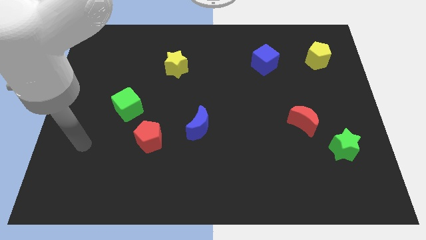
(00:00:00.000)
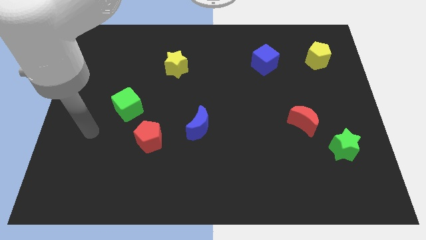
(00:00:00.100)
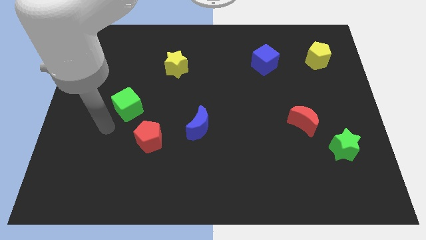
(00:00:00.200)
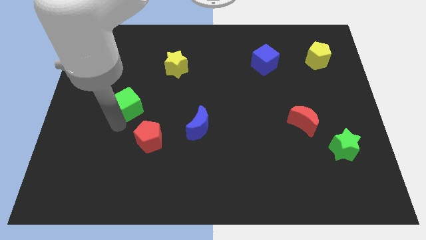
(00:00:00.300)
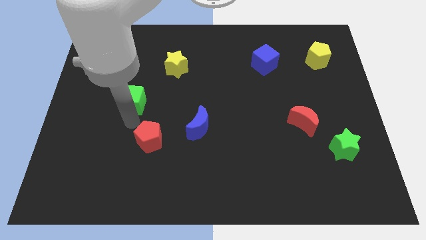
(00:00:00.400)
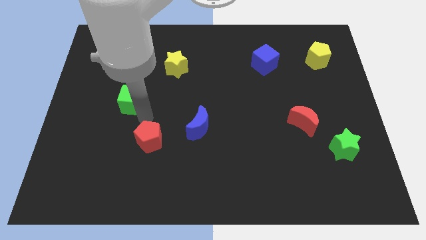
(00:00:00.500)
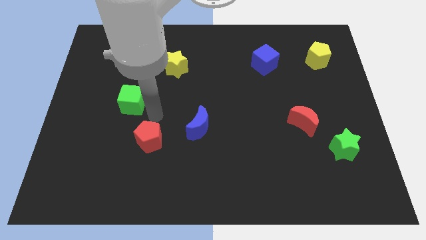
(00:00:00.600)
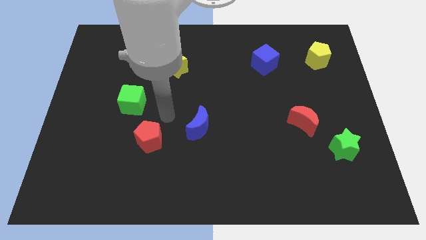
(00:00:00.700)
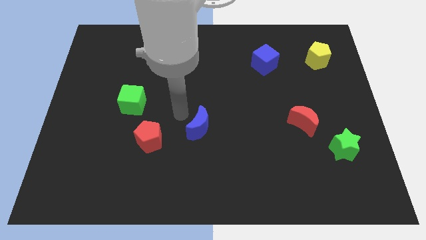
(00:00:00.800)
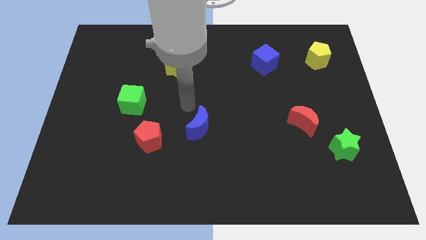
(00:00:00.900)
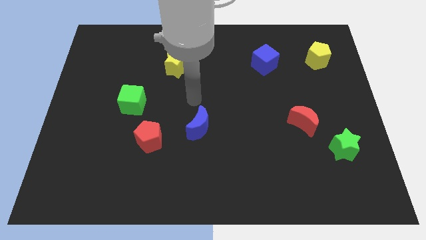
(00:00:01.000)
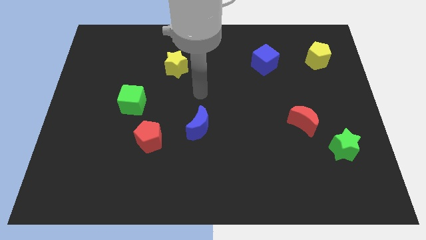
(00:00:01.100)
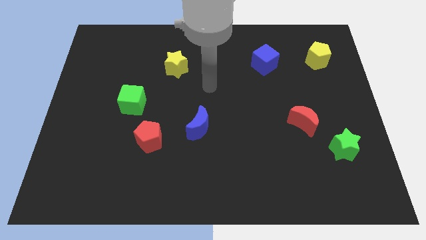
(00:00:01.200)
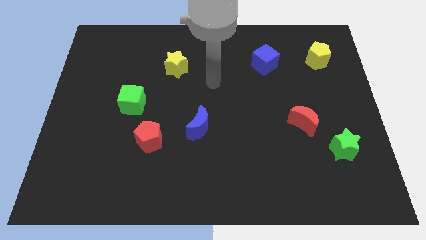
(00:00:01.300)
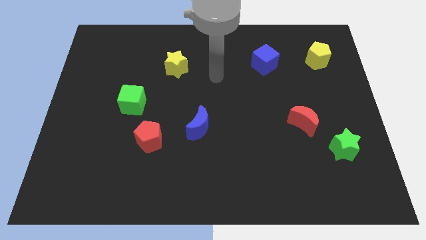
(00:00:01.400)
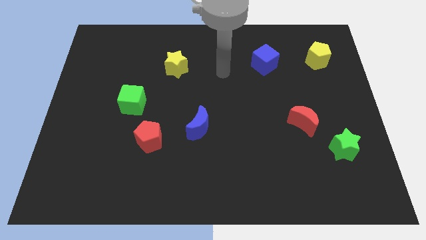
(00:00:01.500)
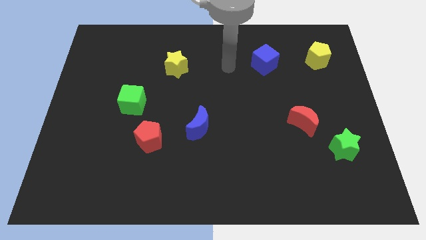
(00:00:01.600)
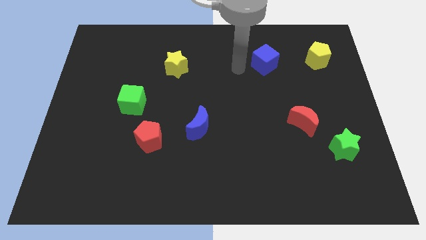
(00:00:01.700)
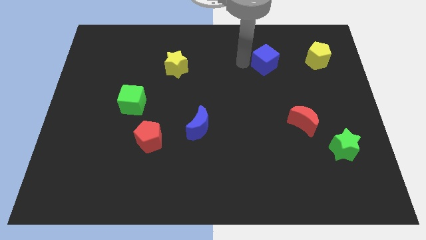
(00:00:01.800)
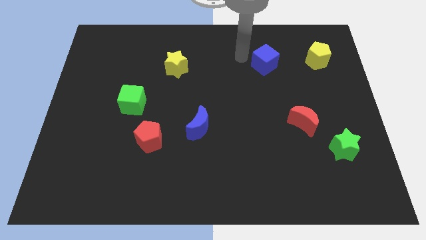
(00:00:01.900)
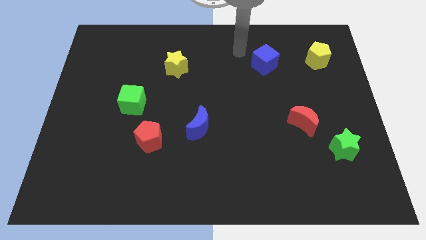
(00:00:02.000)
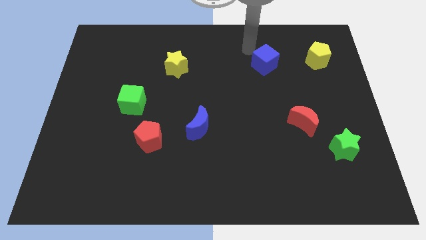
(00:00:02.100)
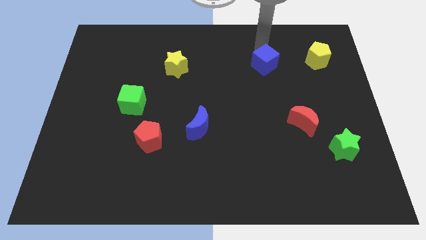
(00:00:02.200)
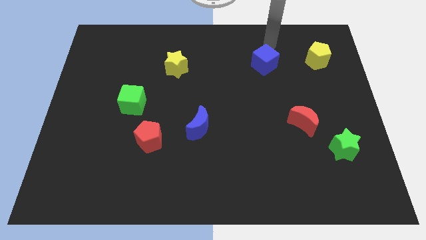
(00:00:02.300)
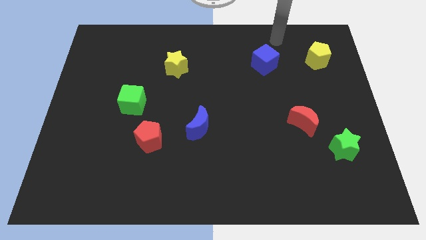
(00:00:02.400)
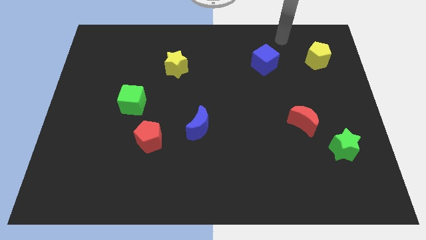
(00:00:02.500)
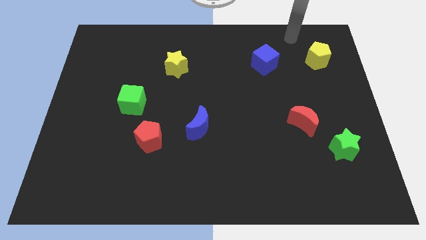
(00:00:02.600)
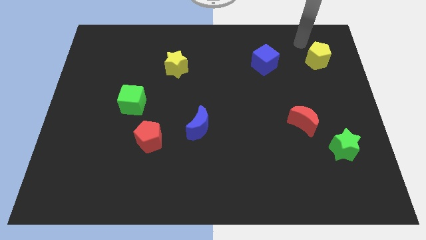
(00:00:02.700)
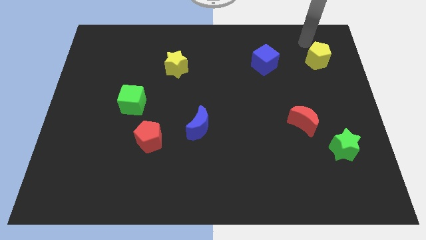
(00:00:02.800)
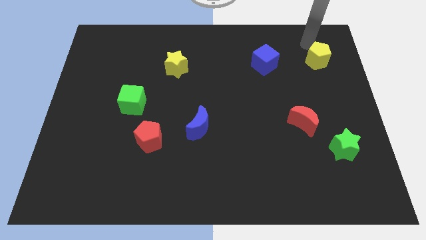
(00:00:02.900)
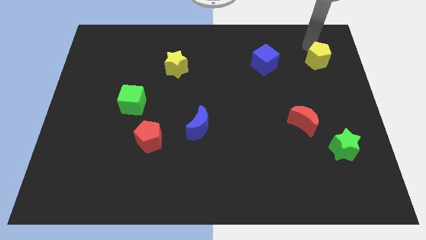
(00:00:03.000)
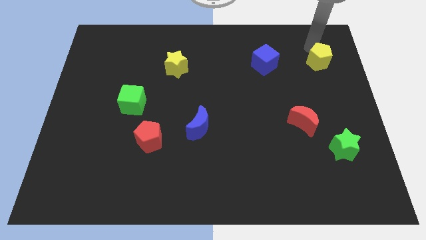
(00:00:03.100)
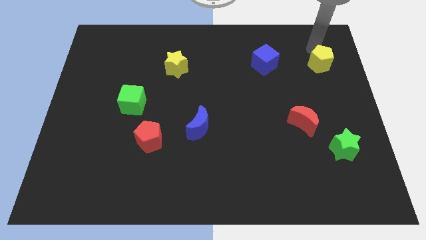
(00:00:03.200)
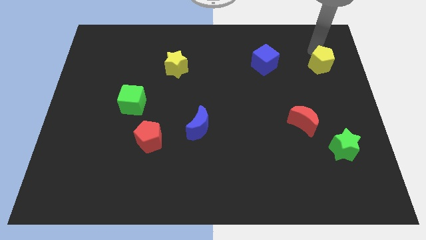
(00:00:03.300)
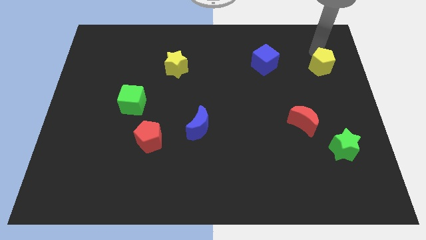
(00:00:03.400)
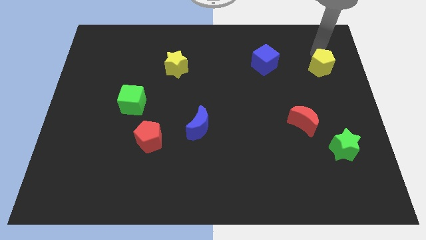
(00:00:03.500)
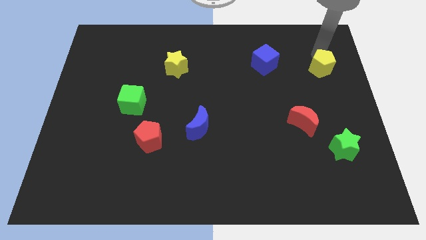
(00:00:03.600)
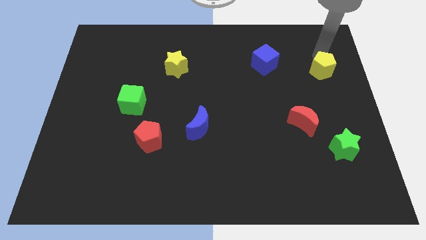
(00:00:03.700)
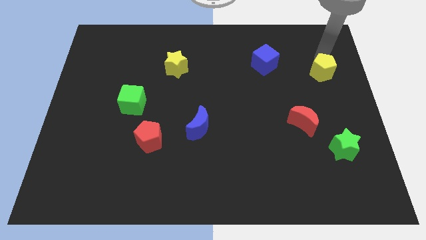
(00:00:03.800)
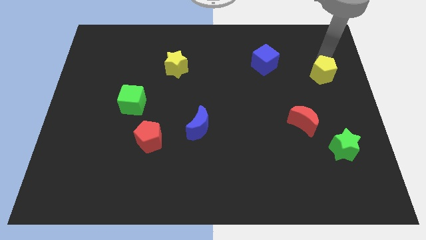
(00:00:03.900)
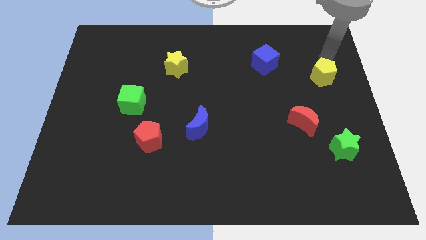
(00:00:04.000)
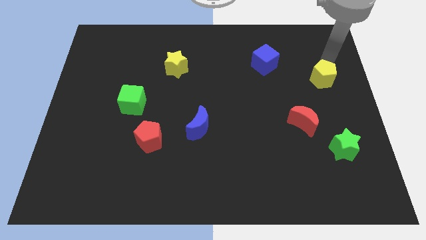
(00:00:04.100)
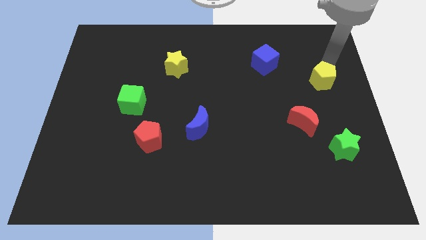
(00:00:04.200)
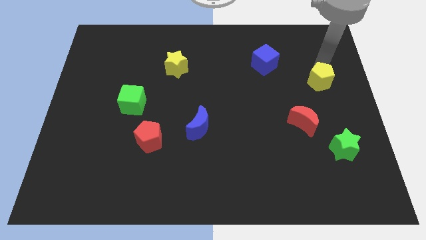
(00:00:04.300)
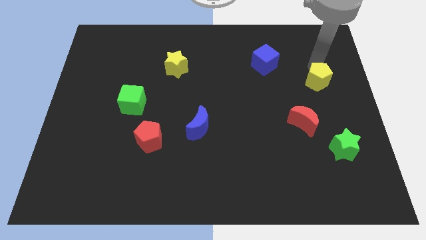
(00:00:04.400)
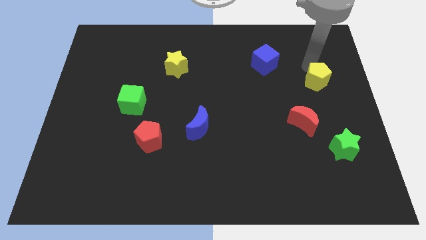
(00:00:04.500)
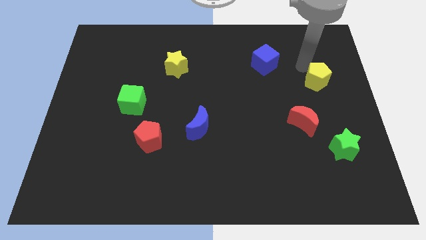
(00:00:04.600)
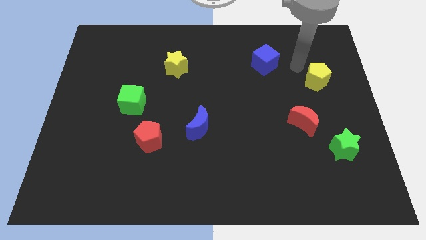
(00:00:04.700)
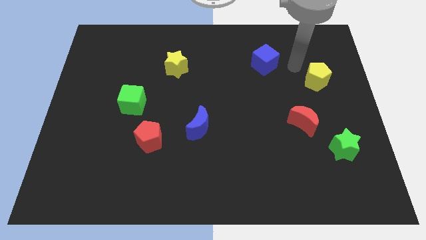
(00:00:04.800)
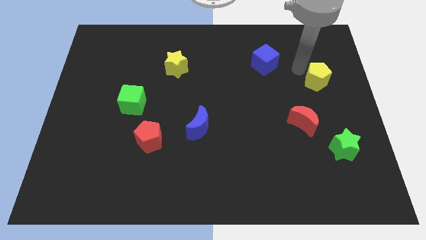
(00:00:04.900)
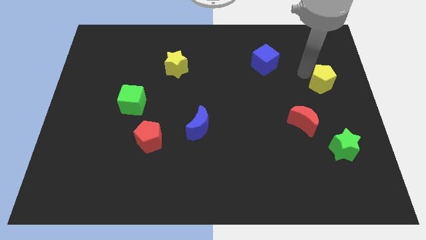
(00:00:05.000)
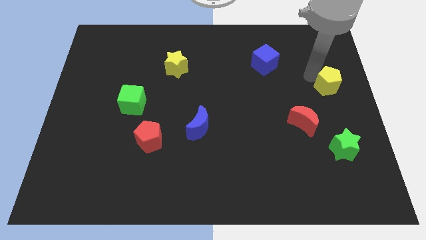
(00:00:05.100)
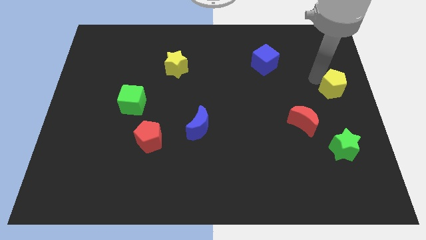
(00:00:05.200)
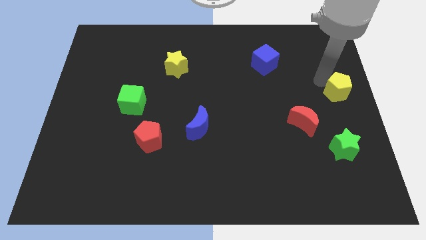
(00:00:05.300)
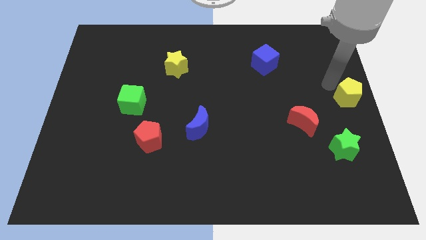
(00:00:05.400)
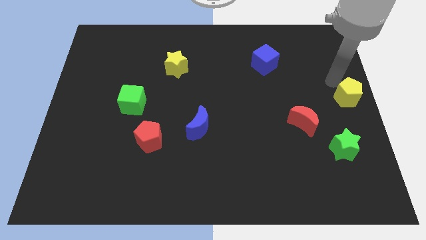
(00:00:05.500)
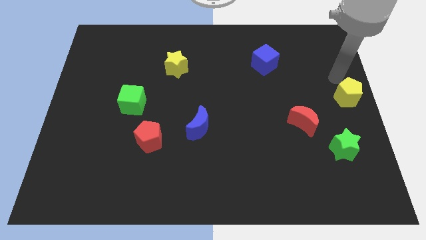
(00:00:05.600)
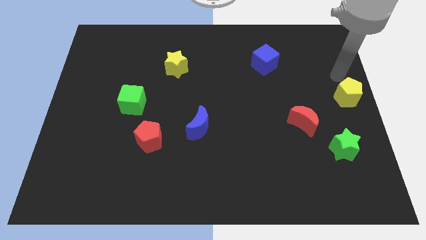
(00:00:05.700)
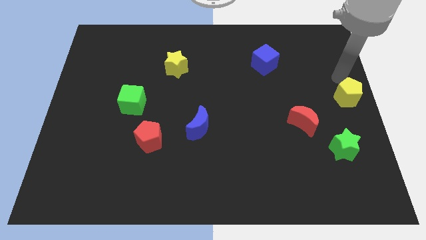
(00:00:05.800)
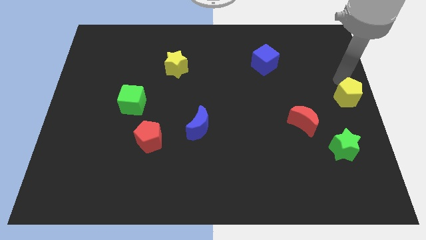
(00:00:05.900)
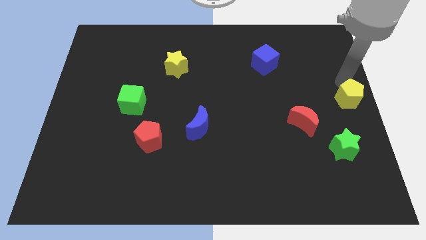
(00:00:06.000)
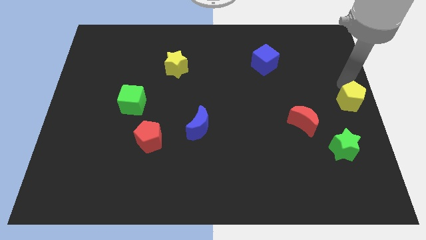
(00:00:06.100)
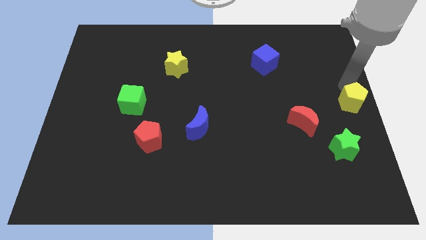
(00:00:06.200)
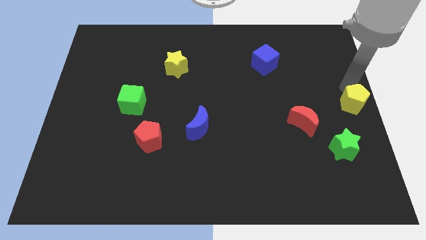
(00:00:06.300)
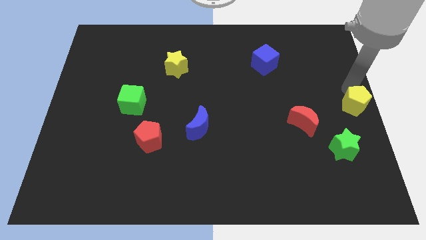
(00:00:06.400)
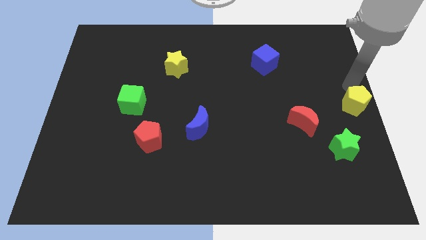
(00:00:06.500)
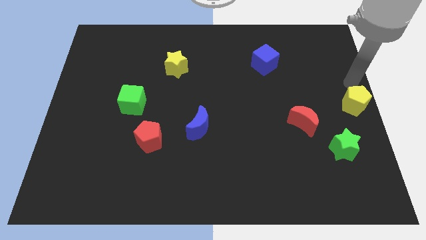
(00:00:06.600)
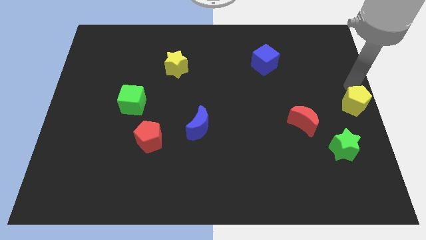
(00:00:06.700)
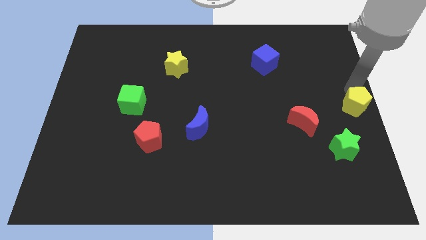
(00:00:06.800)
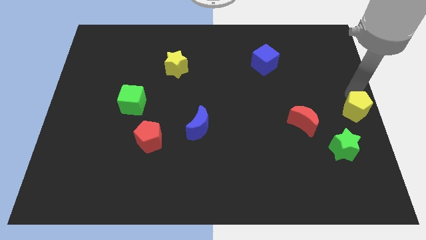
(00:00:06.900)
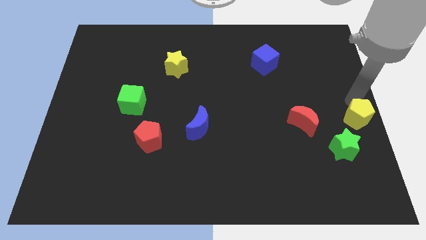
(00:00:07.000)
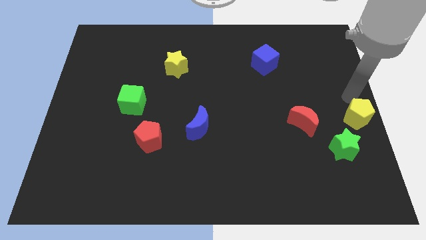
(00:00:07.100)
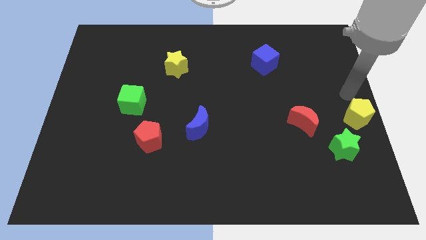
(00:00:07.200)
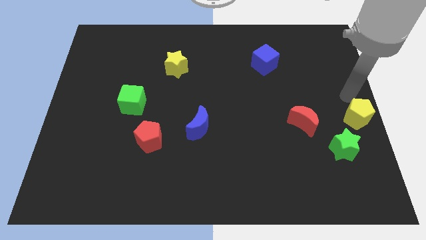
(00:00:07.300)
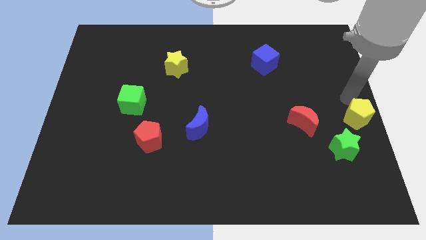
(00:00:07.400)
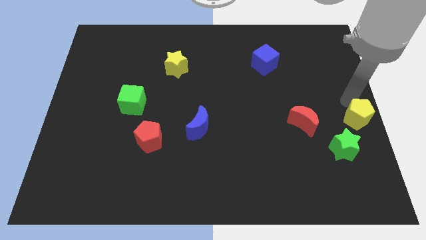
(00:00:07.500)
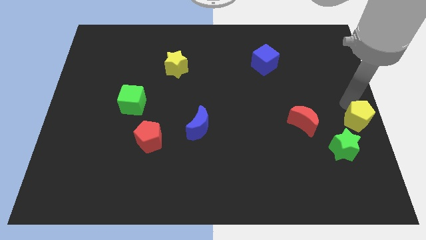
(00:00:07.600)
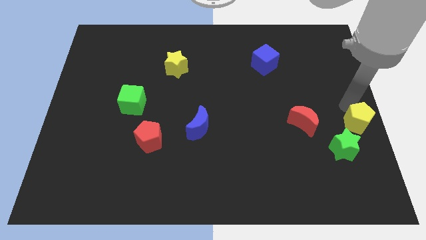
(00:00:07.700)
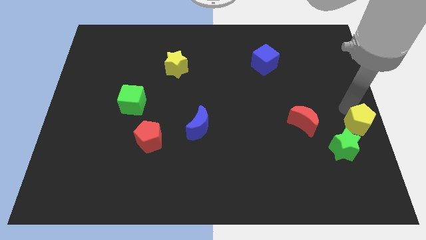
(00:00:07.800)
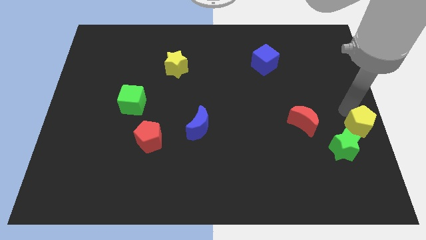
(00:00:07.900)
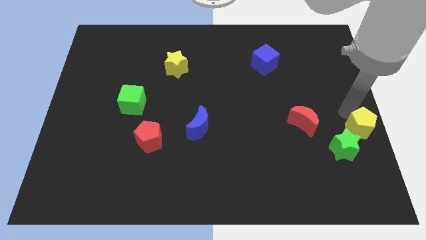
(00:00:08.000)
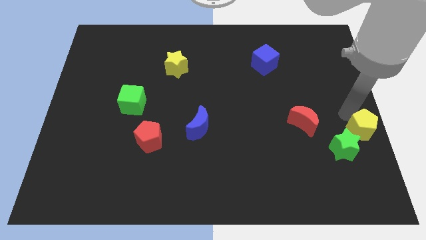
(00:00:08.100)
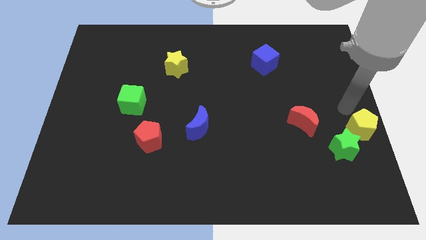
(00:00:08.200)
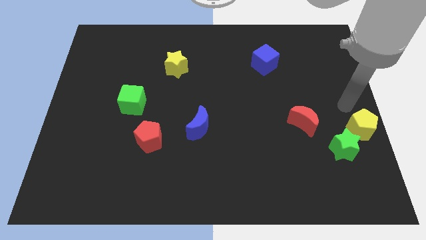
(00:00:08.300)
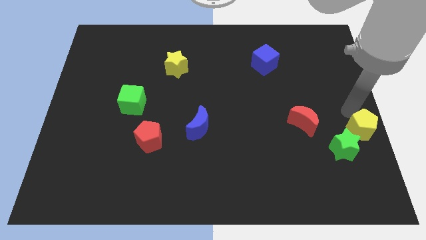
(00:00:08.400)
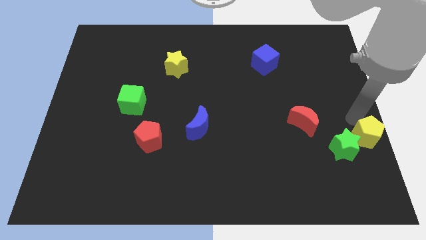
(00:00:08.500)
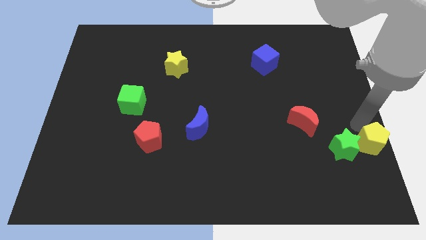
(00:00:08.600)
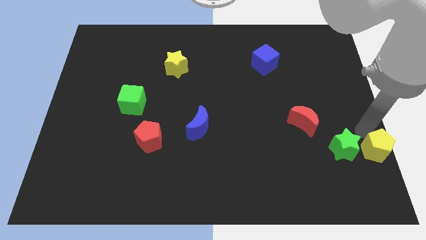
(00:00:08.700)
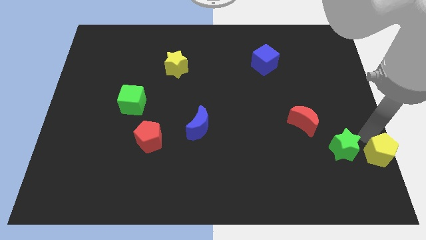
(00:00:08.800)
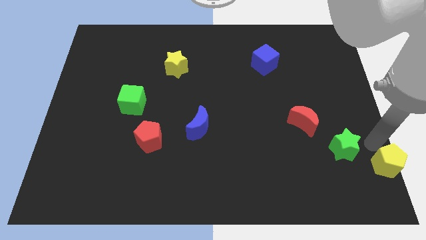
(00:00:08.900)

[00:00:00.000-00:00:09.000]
move the yellow pentagon to the bottom right corner
